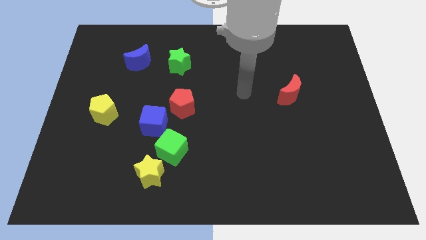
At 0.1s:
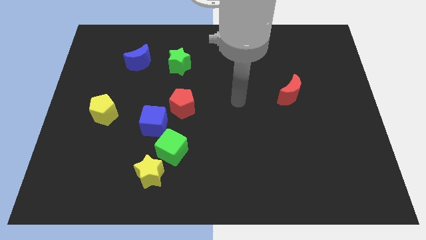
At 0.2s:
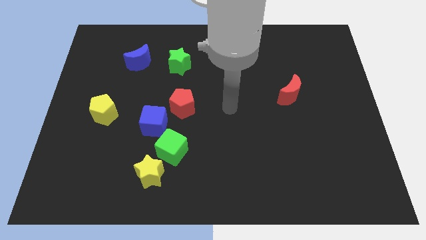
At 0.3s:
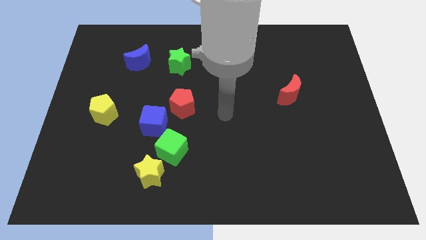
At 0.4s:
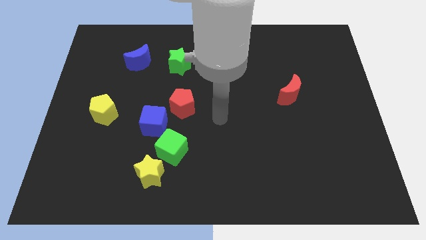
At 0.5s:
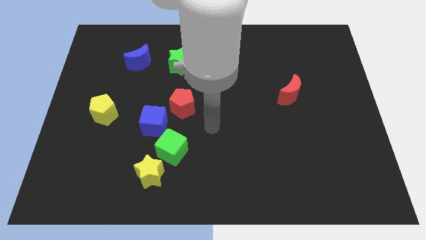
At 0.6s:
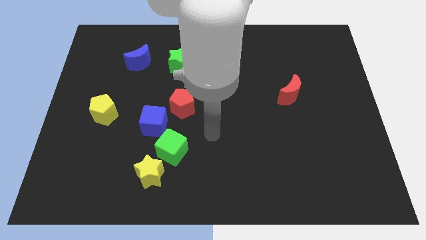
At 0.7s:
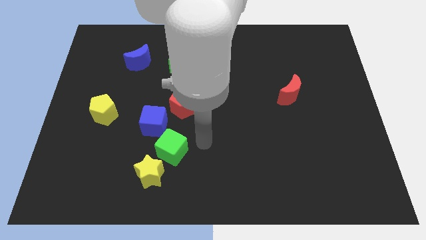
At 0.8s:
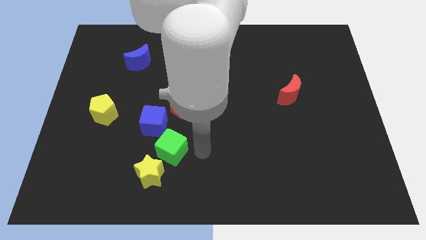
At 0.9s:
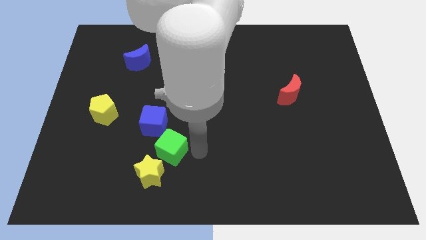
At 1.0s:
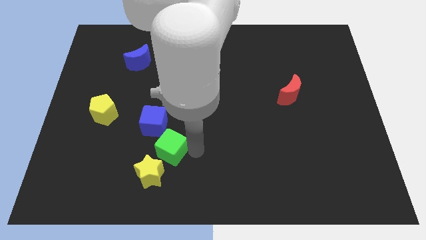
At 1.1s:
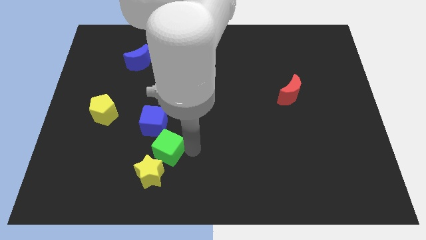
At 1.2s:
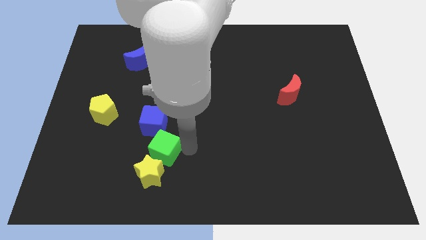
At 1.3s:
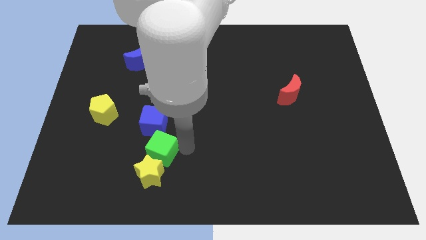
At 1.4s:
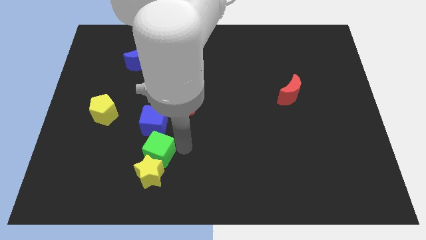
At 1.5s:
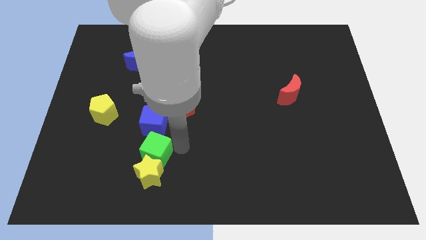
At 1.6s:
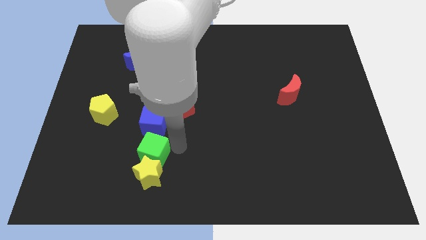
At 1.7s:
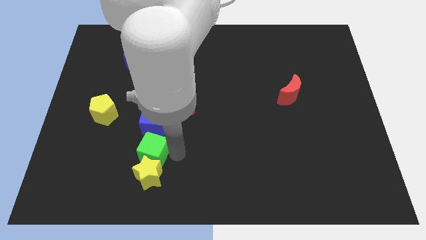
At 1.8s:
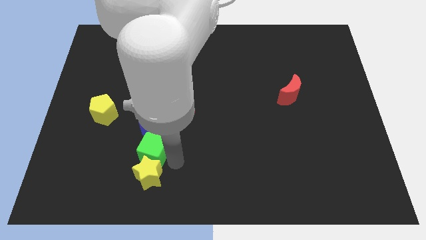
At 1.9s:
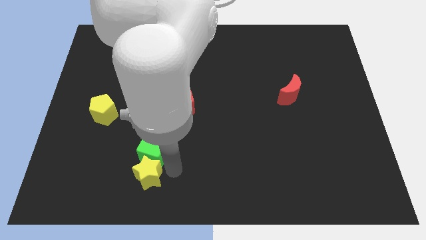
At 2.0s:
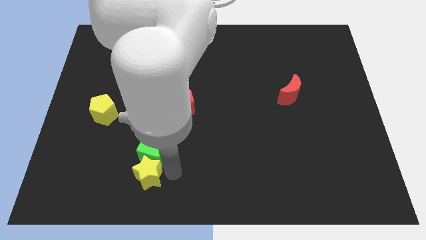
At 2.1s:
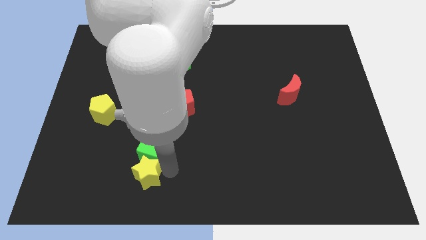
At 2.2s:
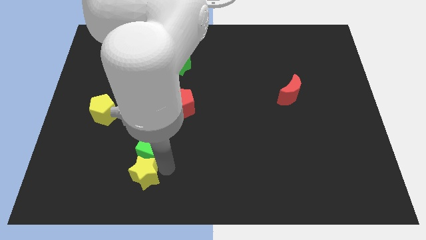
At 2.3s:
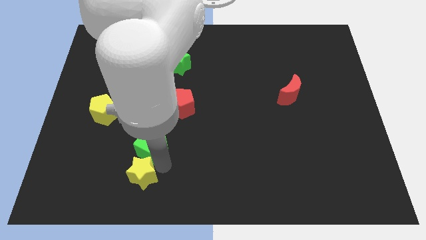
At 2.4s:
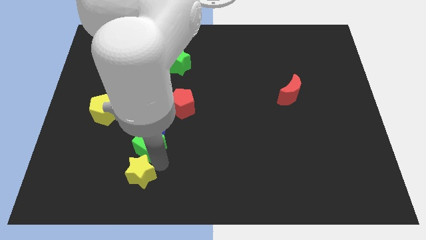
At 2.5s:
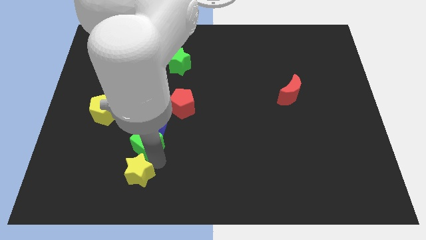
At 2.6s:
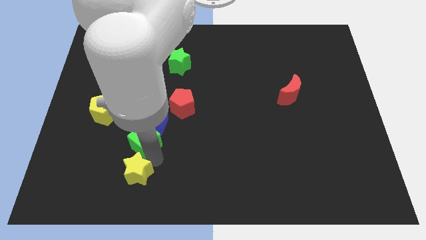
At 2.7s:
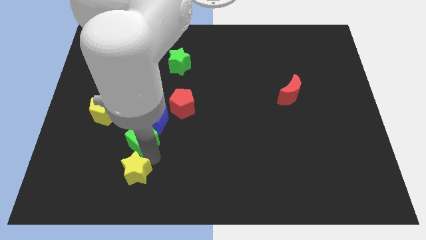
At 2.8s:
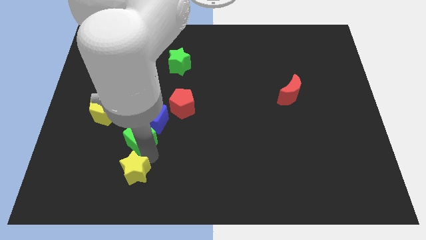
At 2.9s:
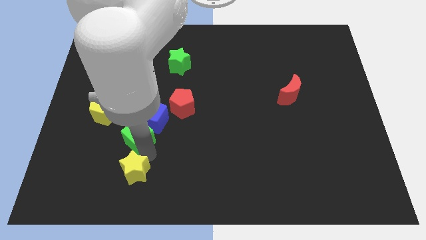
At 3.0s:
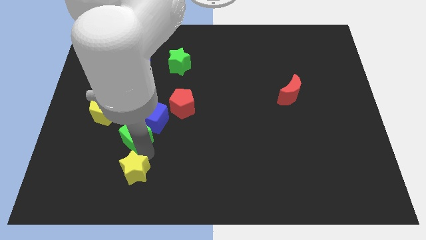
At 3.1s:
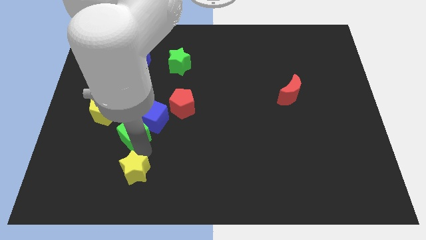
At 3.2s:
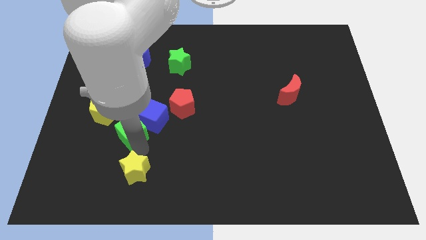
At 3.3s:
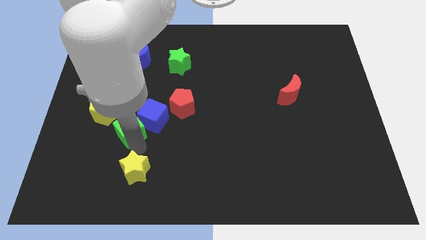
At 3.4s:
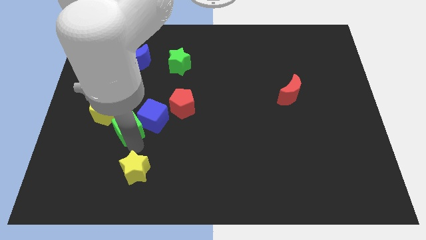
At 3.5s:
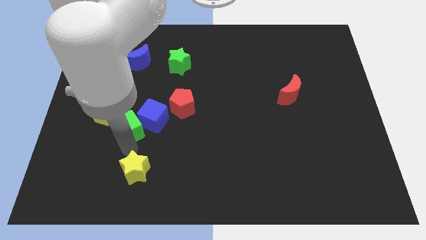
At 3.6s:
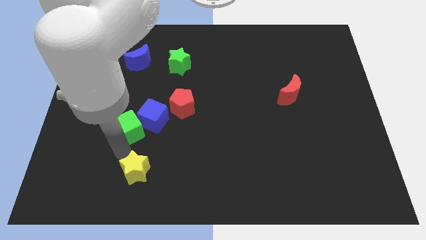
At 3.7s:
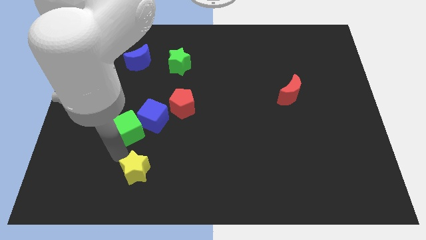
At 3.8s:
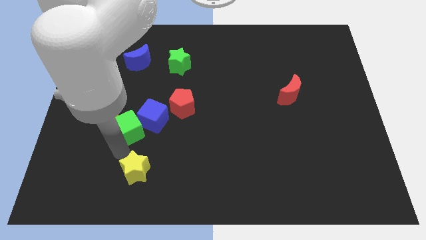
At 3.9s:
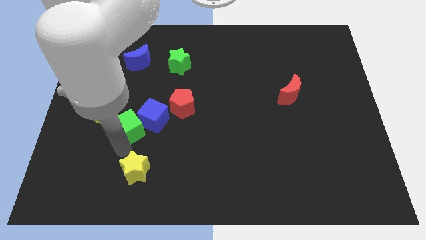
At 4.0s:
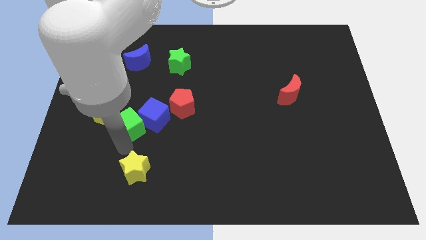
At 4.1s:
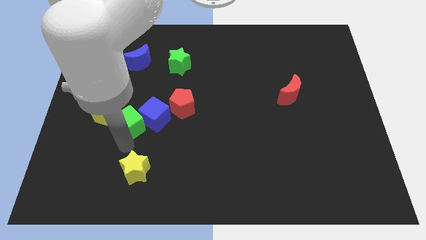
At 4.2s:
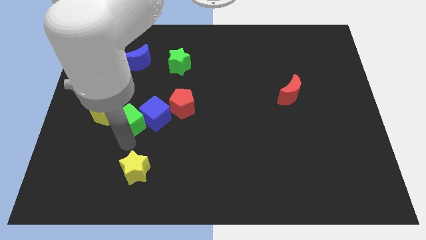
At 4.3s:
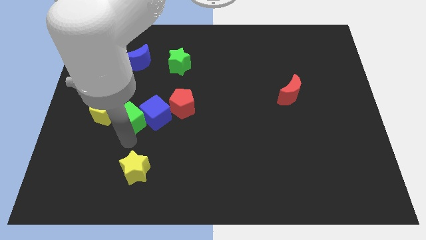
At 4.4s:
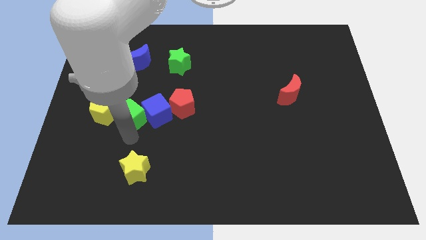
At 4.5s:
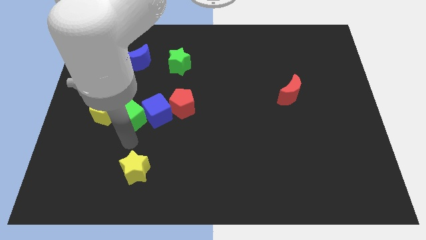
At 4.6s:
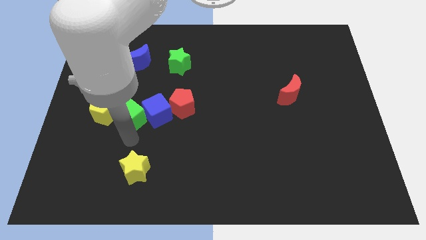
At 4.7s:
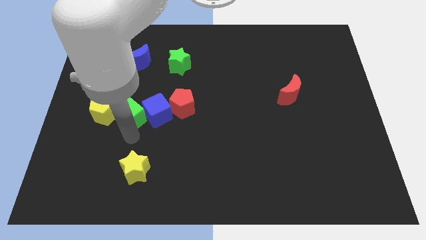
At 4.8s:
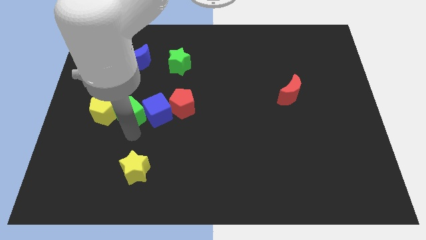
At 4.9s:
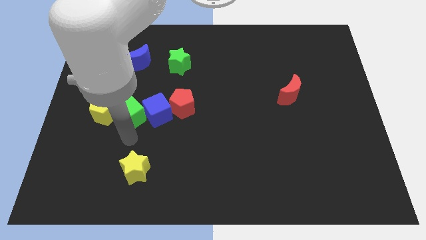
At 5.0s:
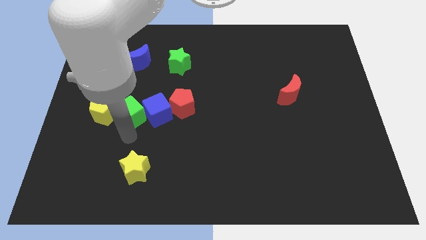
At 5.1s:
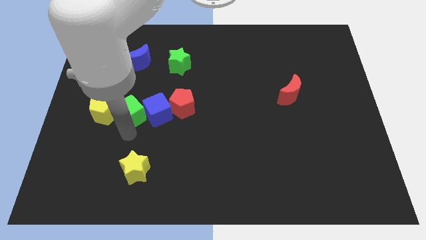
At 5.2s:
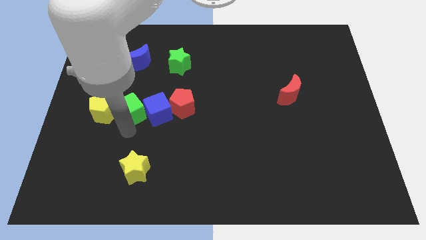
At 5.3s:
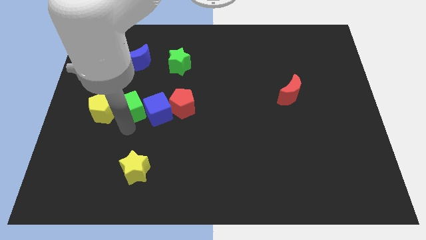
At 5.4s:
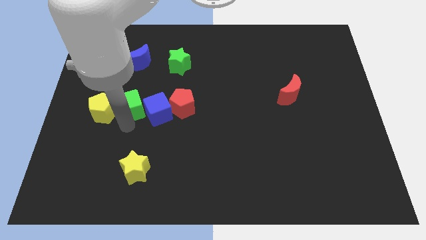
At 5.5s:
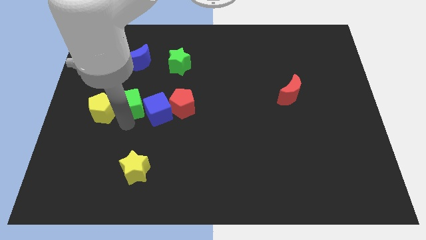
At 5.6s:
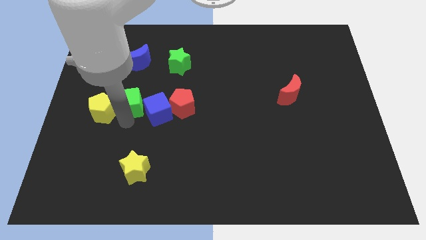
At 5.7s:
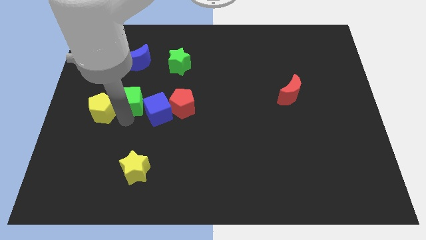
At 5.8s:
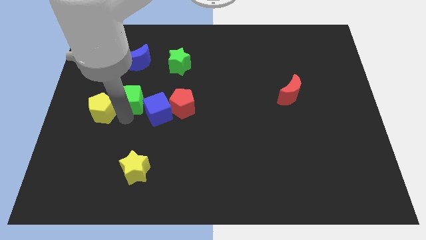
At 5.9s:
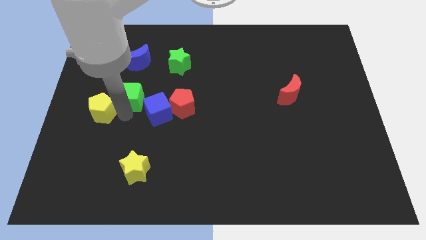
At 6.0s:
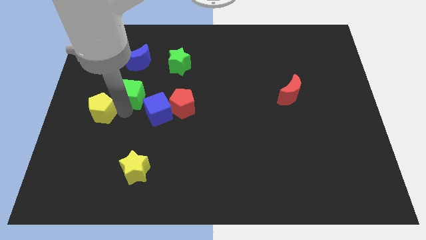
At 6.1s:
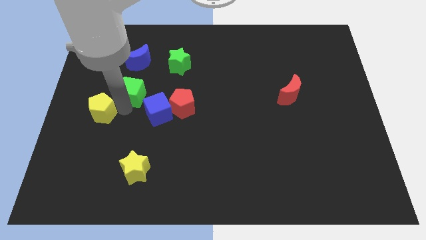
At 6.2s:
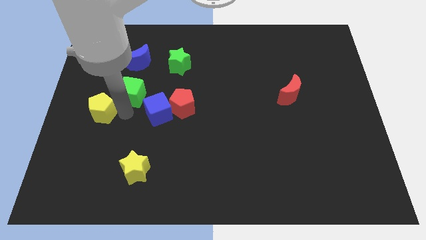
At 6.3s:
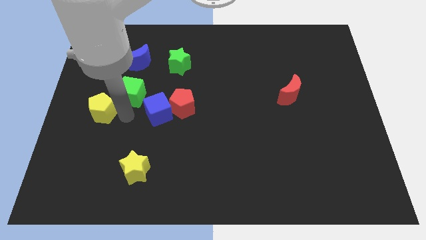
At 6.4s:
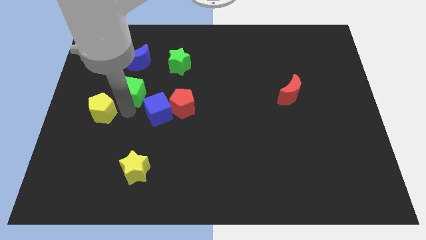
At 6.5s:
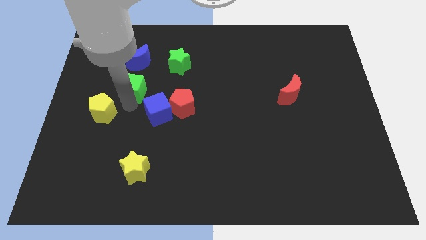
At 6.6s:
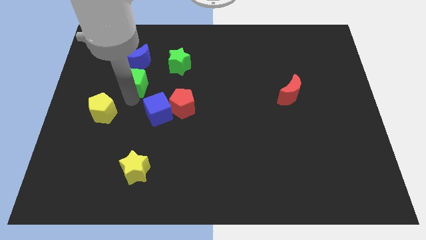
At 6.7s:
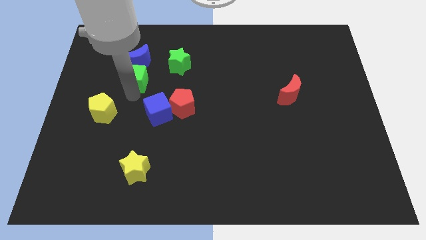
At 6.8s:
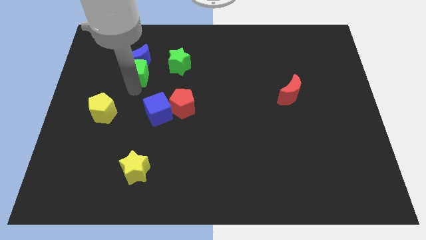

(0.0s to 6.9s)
push the green cube to the blue moon

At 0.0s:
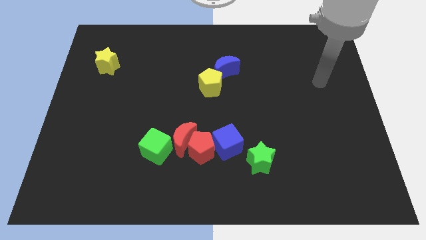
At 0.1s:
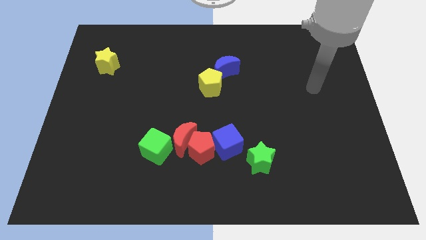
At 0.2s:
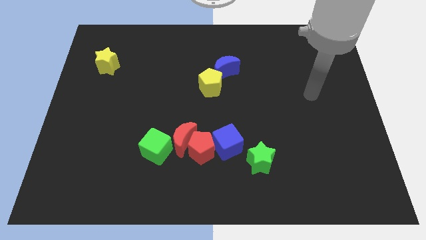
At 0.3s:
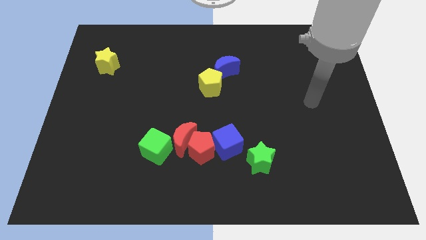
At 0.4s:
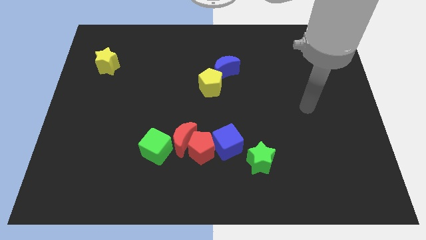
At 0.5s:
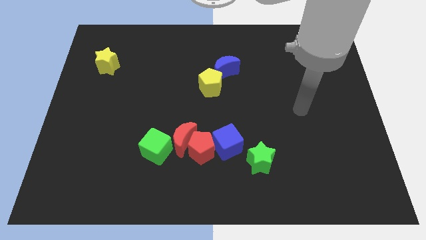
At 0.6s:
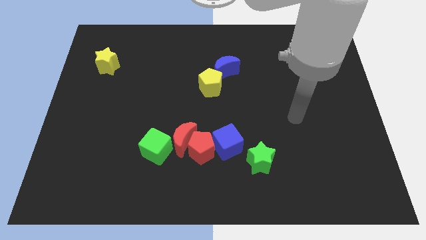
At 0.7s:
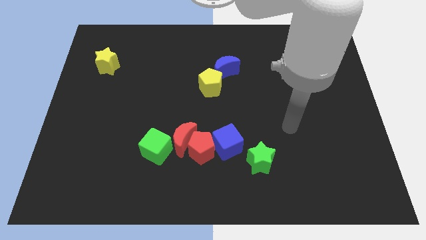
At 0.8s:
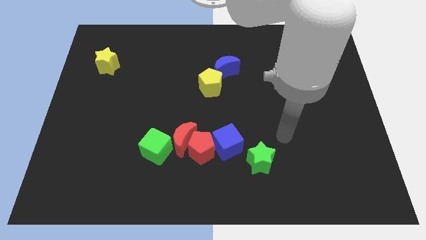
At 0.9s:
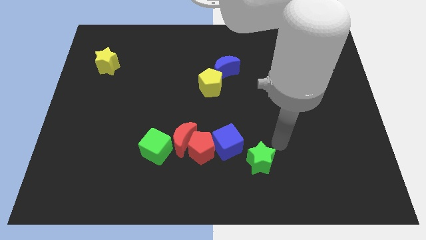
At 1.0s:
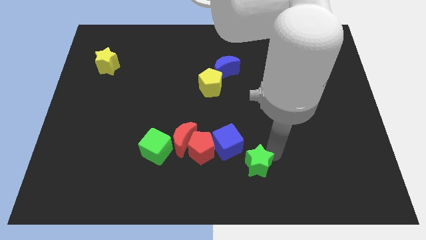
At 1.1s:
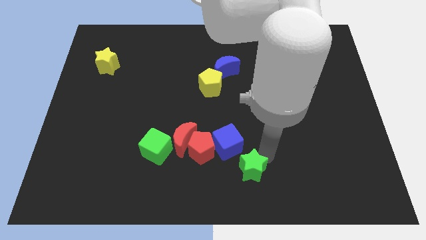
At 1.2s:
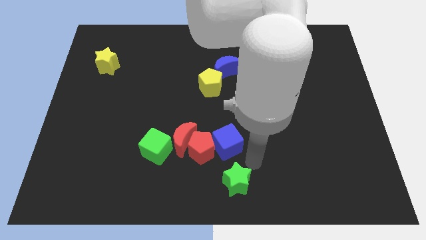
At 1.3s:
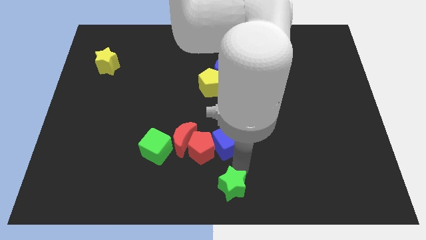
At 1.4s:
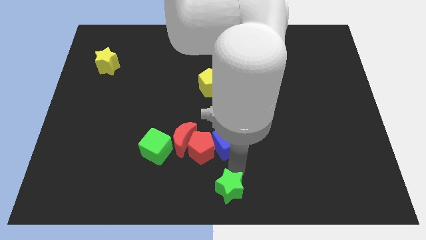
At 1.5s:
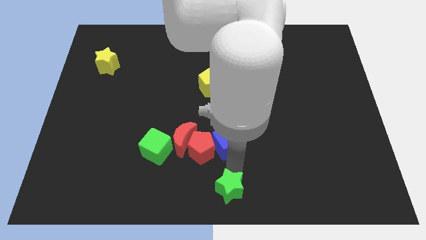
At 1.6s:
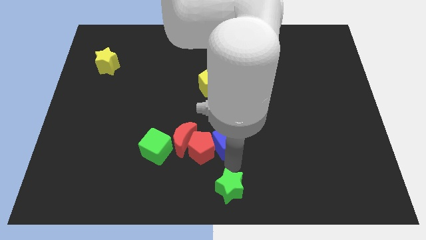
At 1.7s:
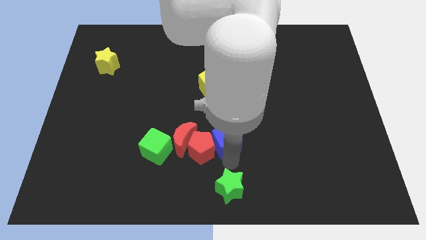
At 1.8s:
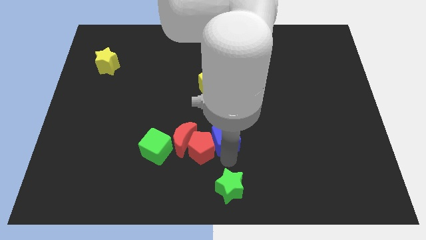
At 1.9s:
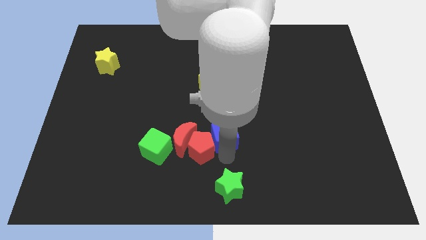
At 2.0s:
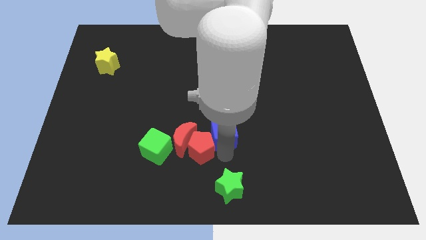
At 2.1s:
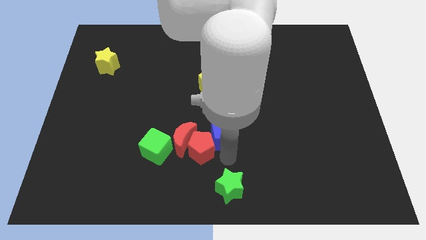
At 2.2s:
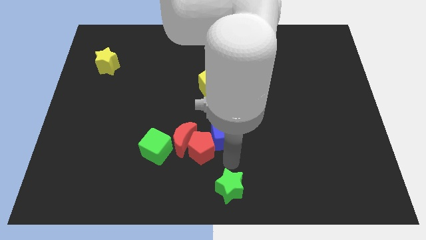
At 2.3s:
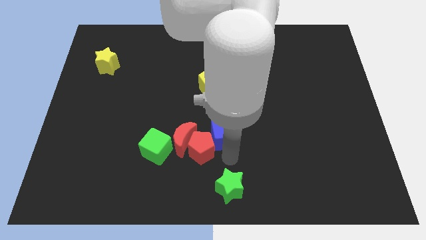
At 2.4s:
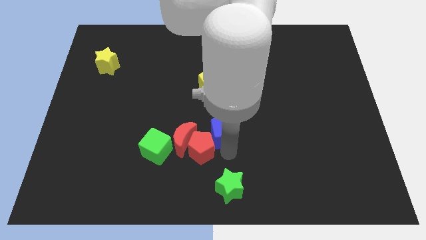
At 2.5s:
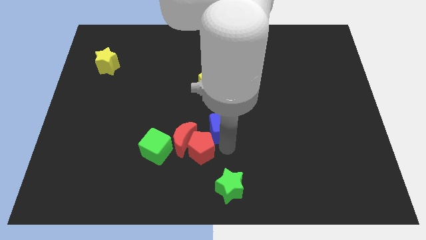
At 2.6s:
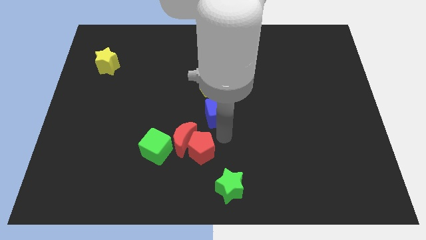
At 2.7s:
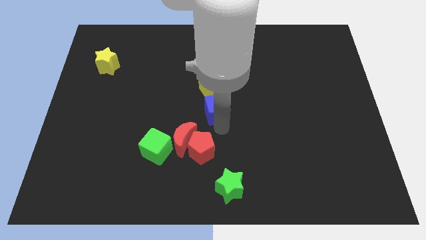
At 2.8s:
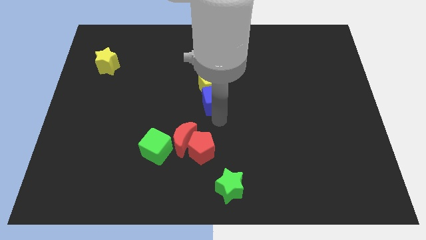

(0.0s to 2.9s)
move the blue cube to the yellow pentagon
